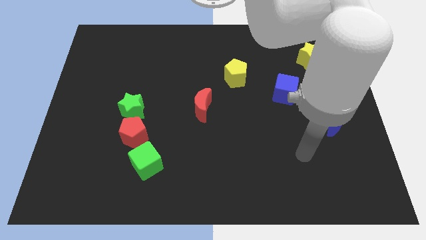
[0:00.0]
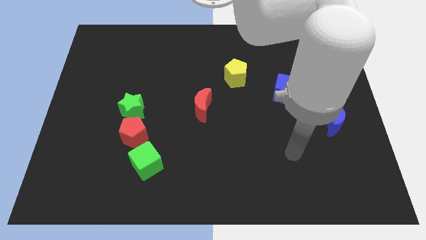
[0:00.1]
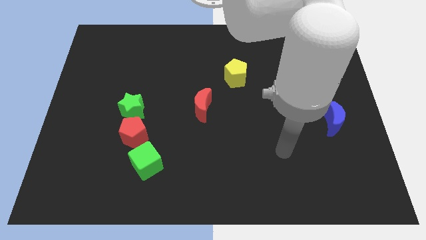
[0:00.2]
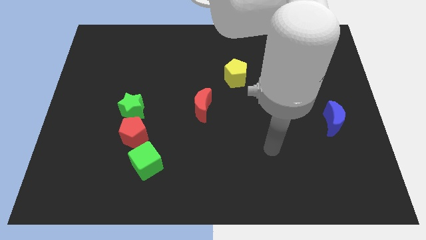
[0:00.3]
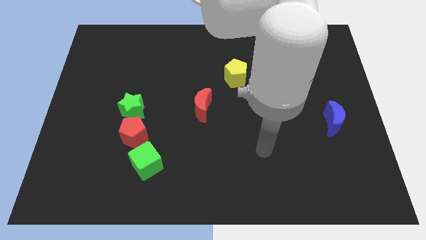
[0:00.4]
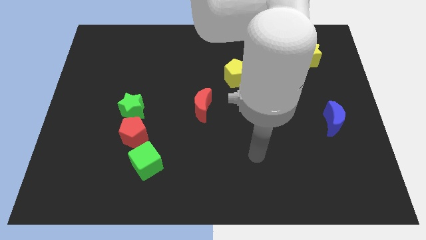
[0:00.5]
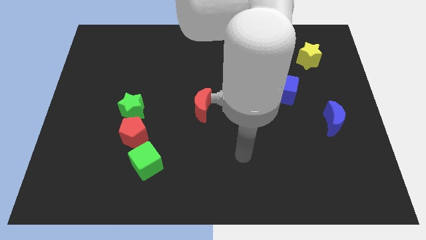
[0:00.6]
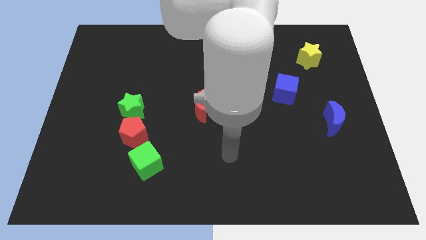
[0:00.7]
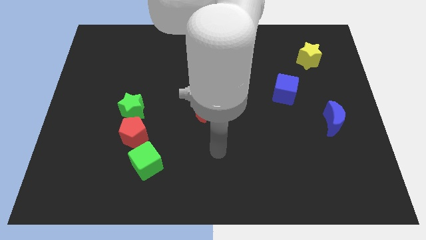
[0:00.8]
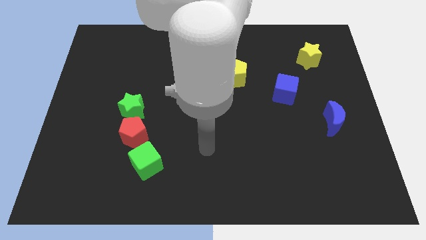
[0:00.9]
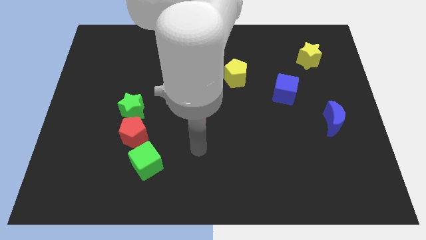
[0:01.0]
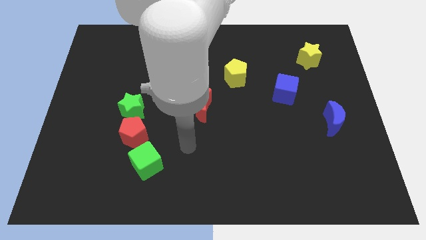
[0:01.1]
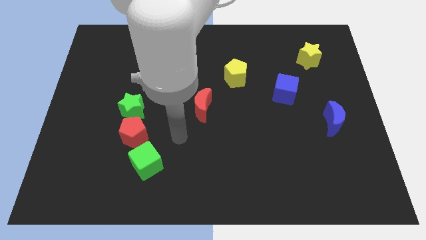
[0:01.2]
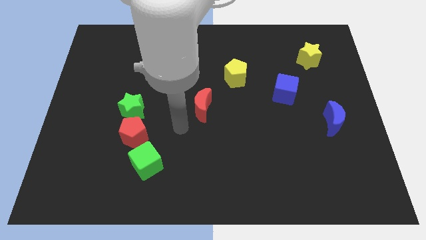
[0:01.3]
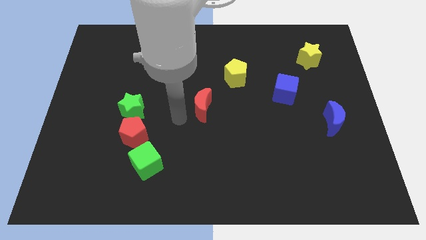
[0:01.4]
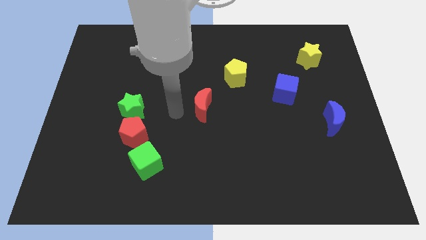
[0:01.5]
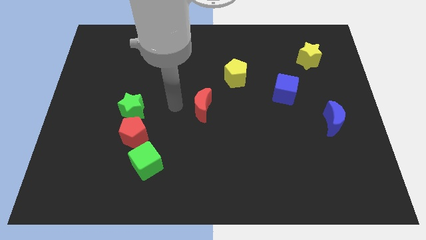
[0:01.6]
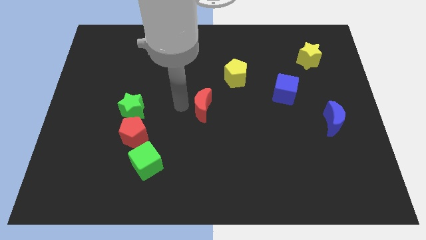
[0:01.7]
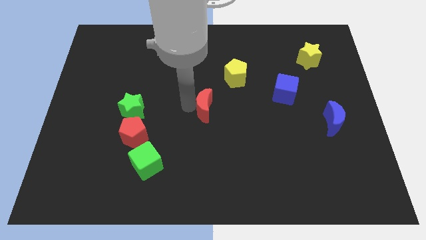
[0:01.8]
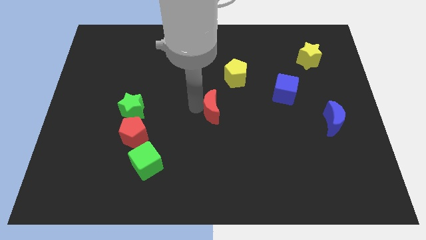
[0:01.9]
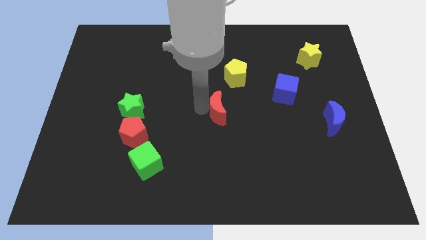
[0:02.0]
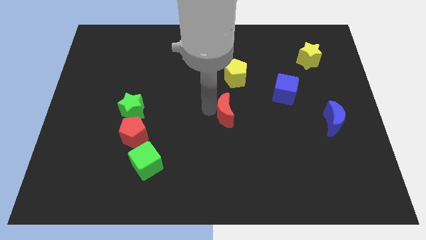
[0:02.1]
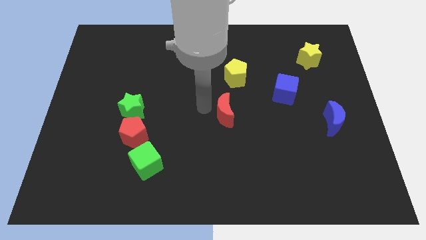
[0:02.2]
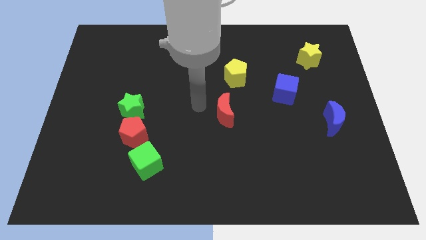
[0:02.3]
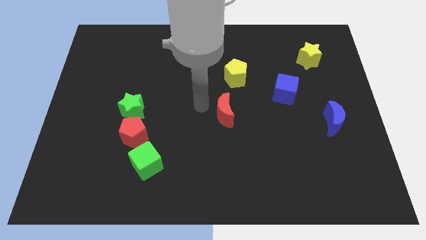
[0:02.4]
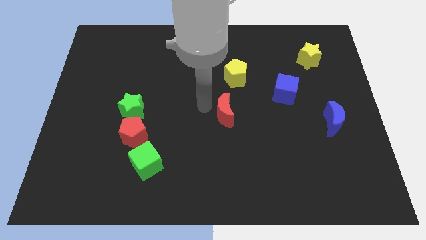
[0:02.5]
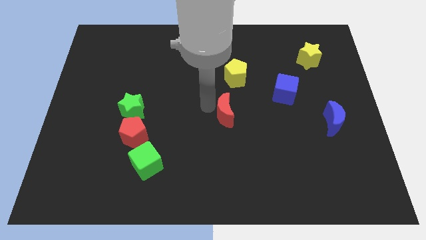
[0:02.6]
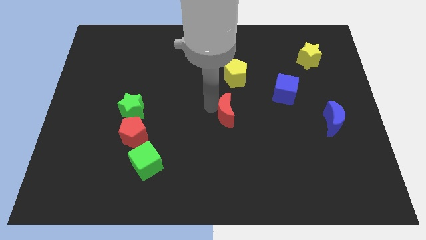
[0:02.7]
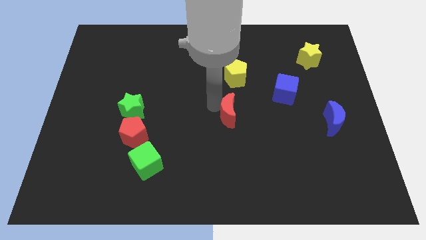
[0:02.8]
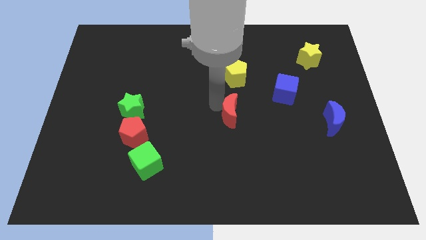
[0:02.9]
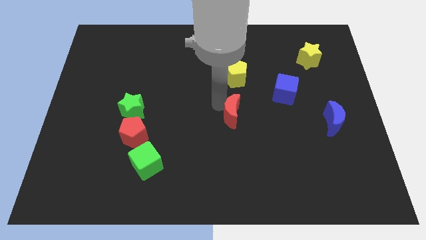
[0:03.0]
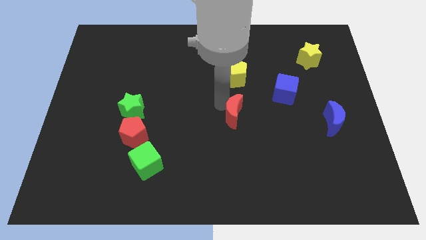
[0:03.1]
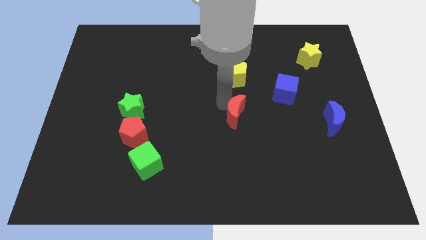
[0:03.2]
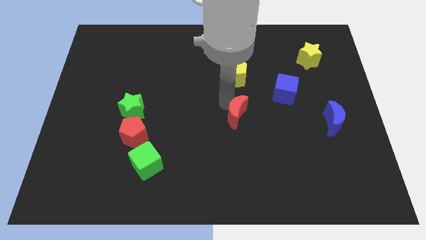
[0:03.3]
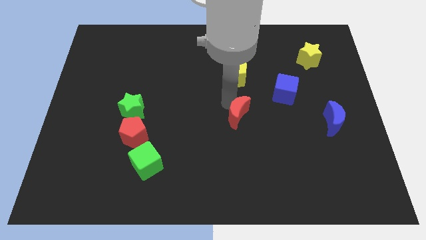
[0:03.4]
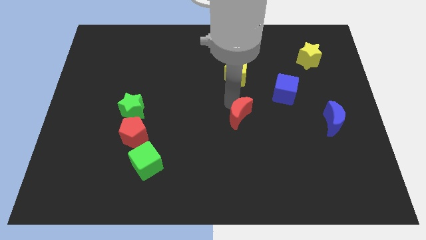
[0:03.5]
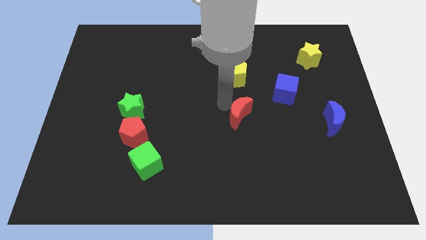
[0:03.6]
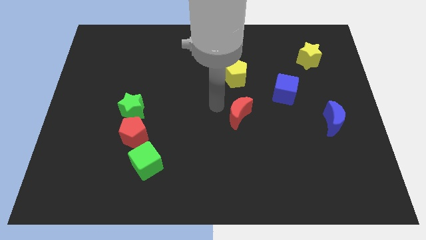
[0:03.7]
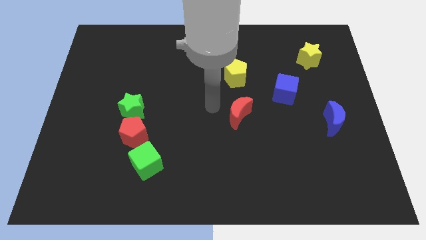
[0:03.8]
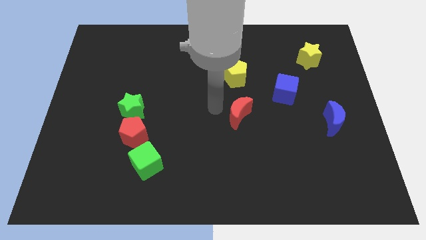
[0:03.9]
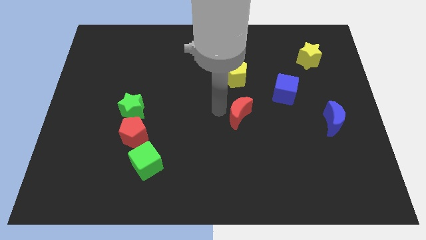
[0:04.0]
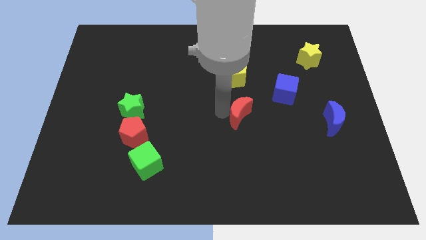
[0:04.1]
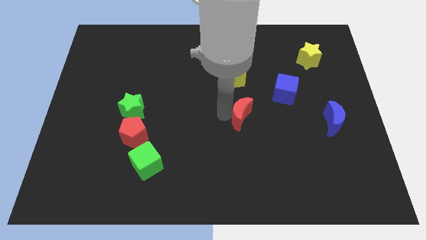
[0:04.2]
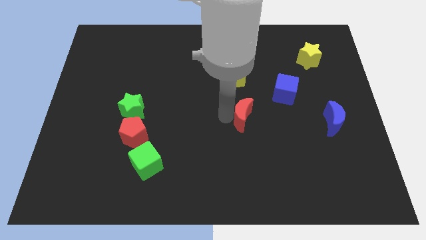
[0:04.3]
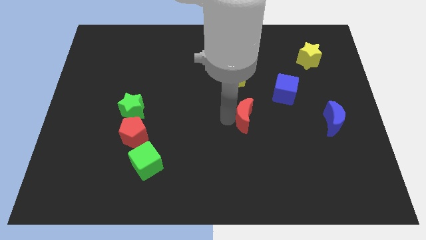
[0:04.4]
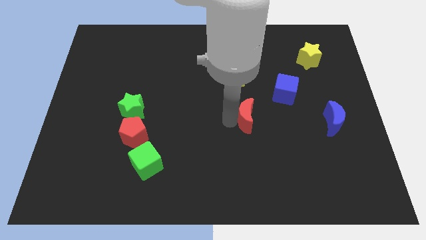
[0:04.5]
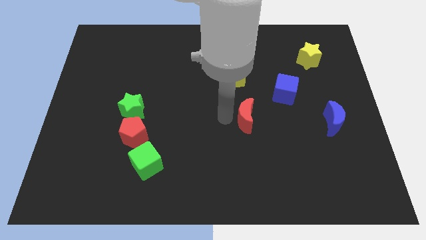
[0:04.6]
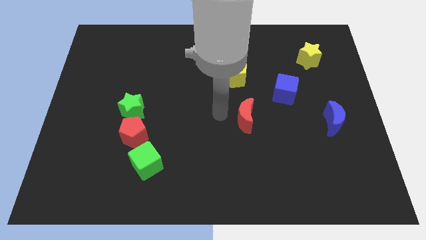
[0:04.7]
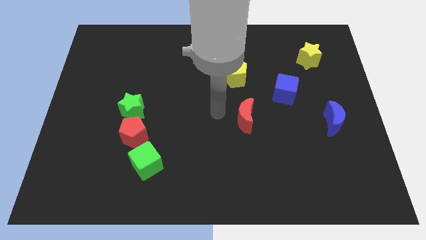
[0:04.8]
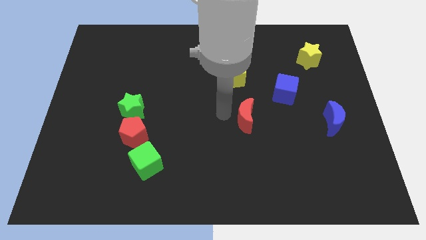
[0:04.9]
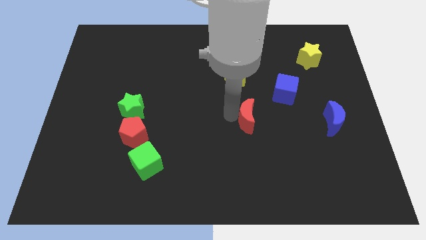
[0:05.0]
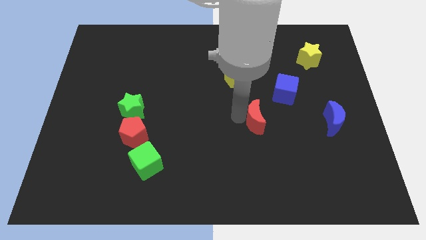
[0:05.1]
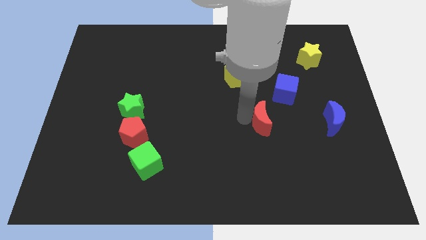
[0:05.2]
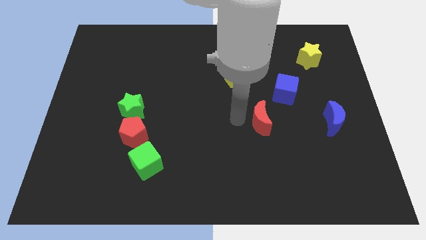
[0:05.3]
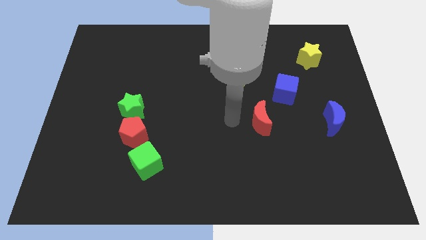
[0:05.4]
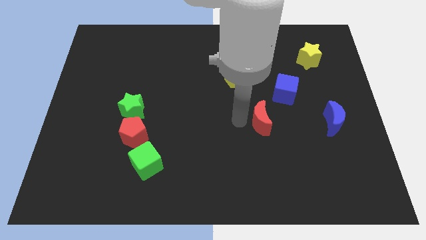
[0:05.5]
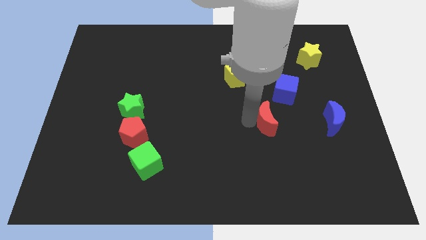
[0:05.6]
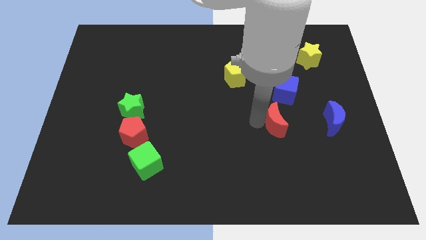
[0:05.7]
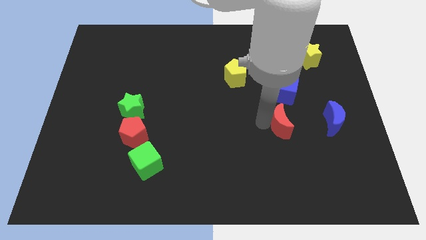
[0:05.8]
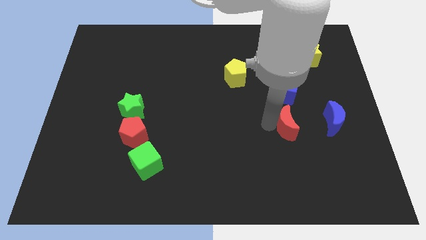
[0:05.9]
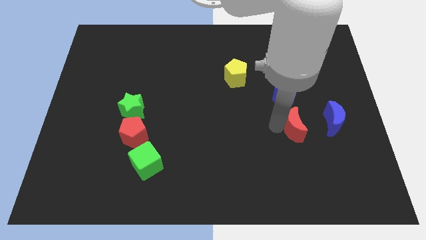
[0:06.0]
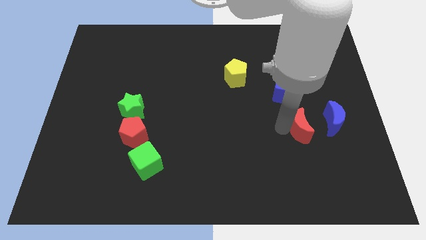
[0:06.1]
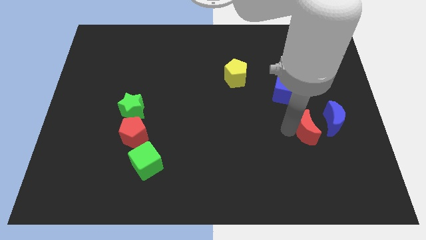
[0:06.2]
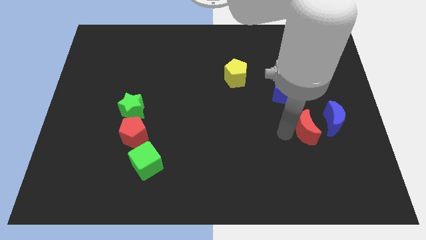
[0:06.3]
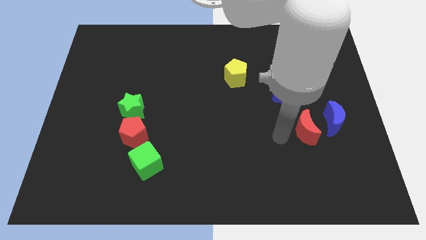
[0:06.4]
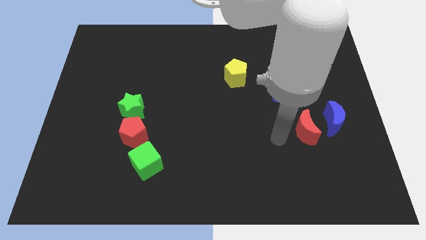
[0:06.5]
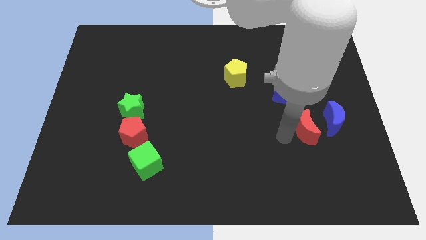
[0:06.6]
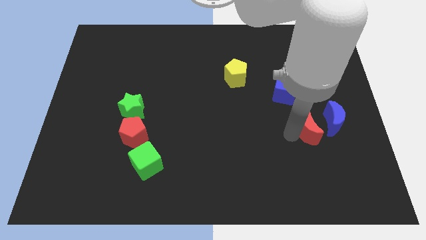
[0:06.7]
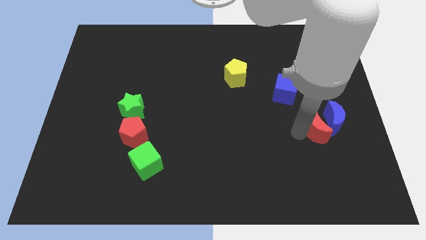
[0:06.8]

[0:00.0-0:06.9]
put the red moon to the blue moon
